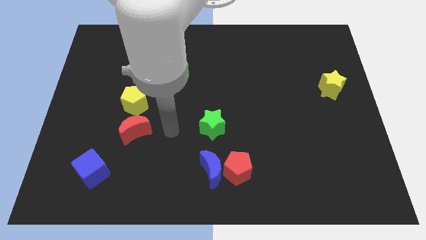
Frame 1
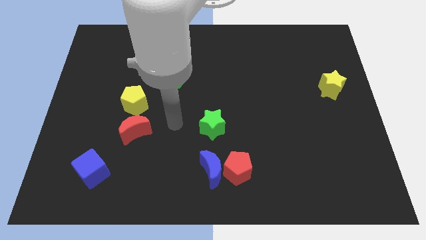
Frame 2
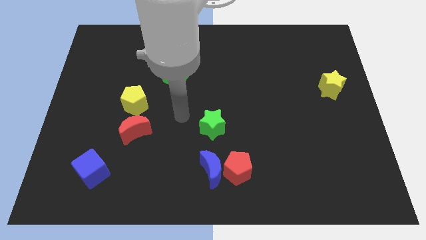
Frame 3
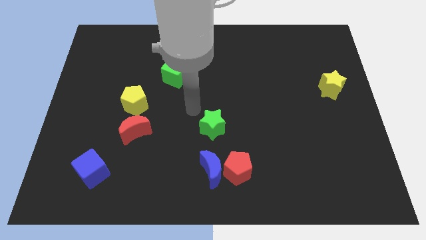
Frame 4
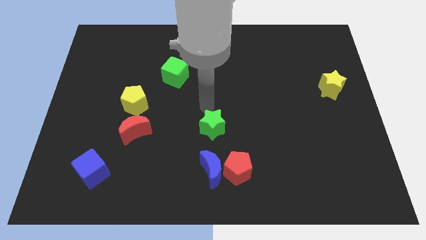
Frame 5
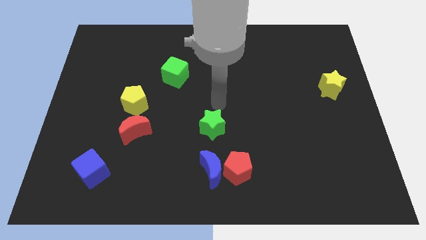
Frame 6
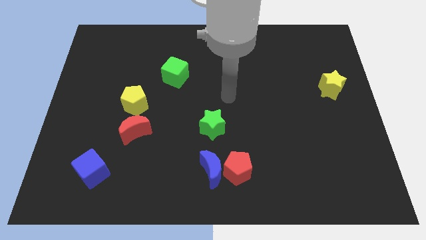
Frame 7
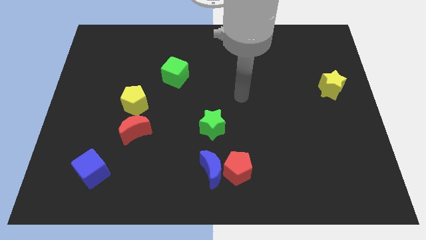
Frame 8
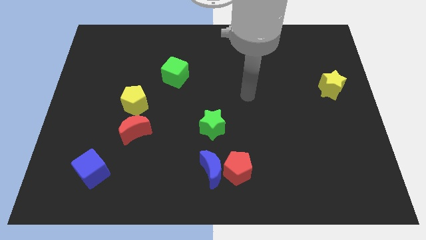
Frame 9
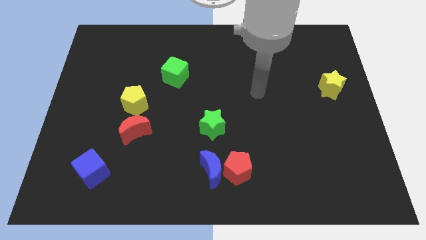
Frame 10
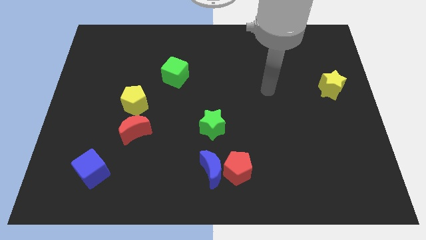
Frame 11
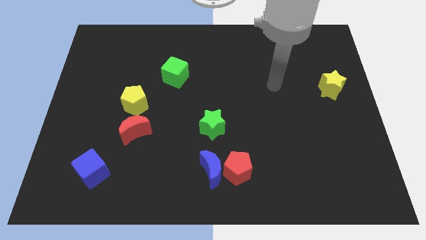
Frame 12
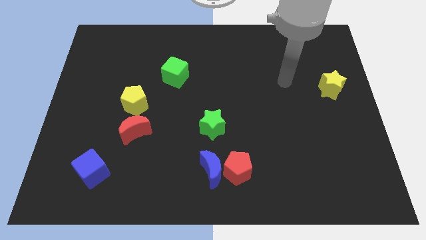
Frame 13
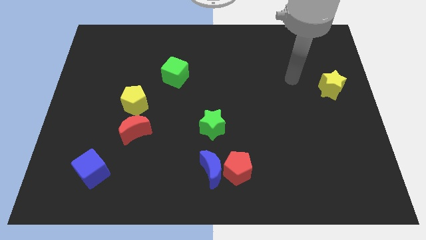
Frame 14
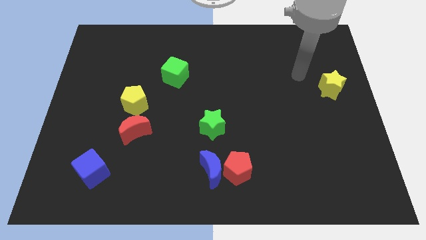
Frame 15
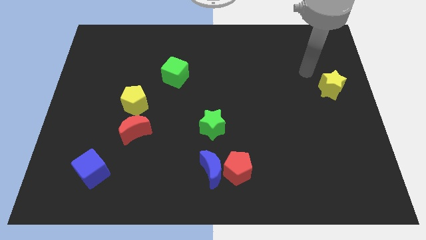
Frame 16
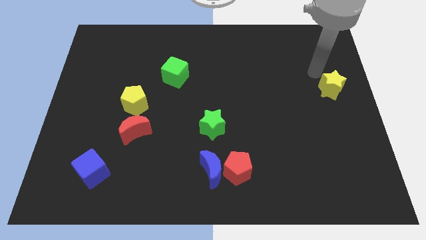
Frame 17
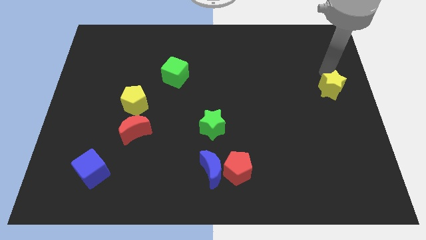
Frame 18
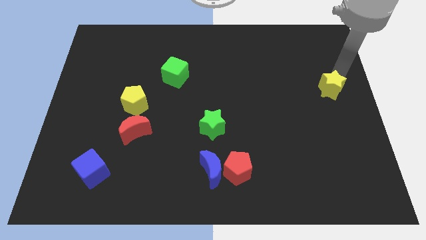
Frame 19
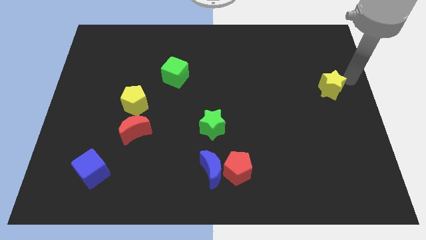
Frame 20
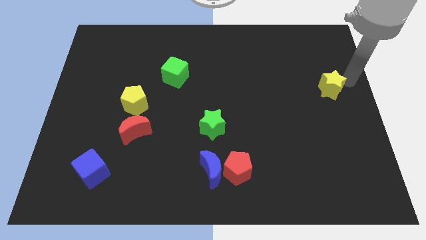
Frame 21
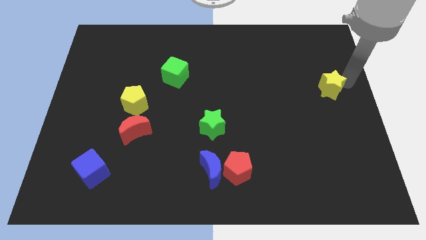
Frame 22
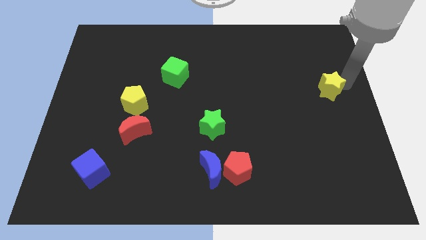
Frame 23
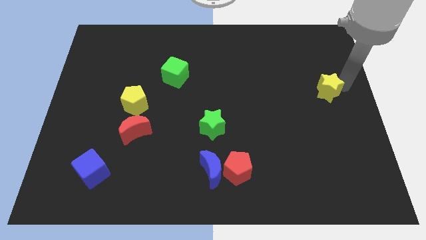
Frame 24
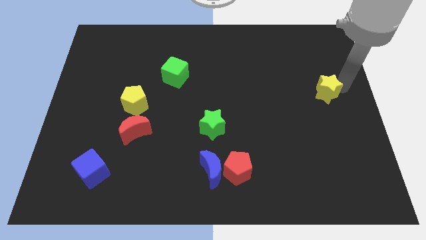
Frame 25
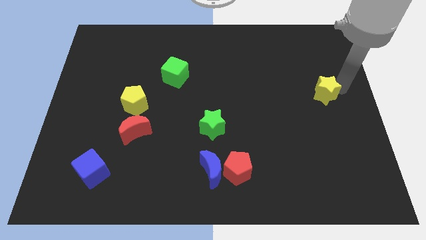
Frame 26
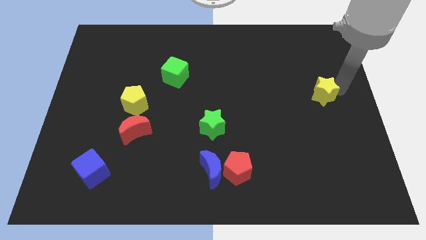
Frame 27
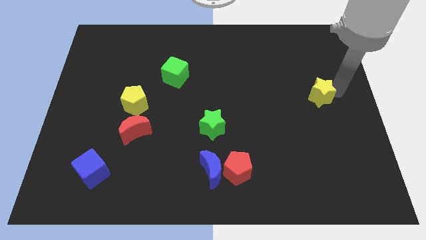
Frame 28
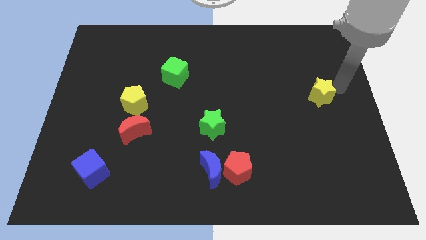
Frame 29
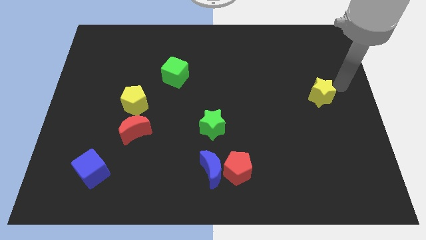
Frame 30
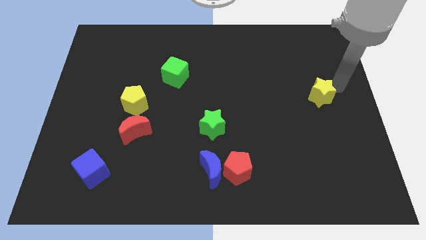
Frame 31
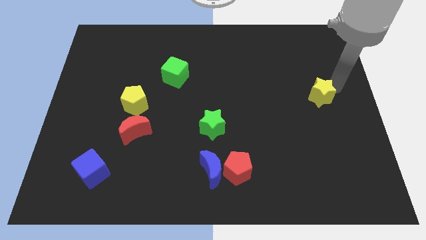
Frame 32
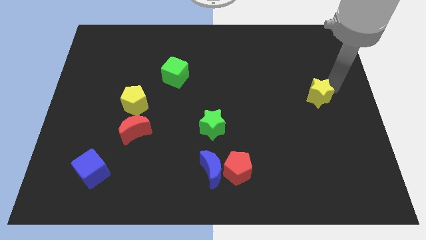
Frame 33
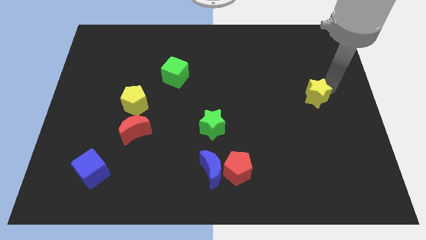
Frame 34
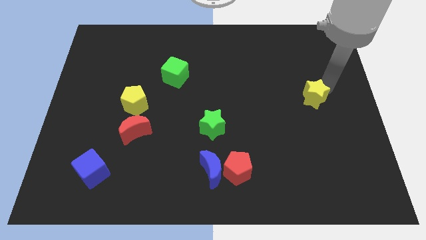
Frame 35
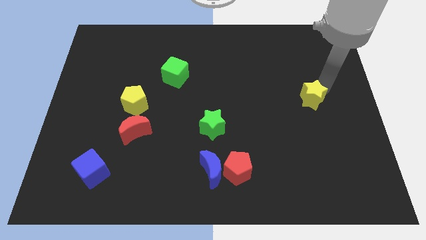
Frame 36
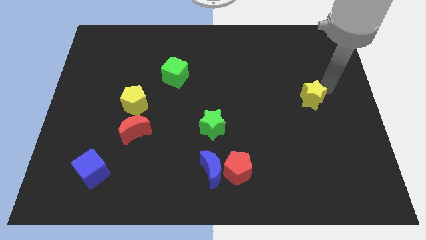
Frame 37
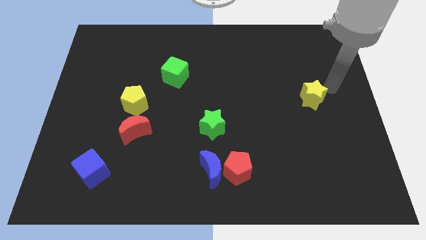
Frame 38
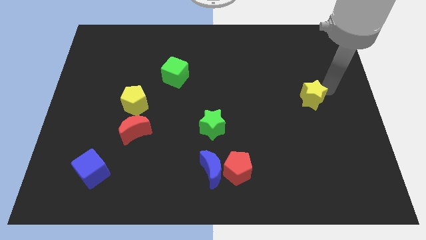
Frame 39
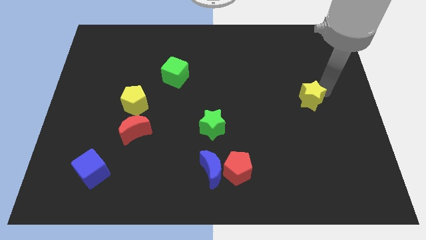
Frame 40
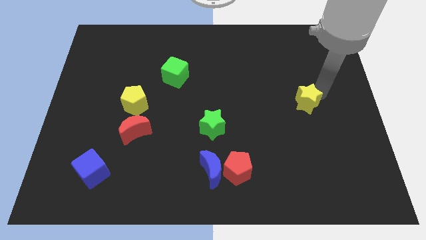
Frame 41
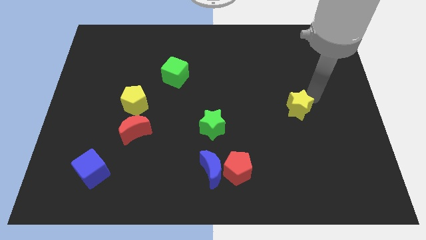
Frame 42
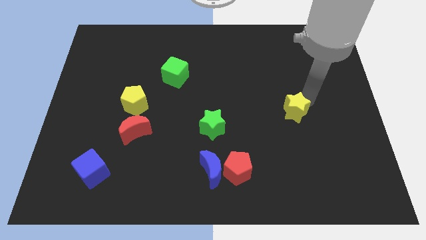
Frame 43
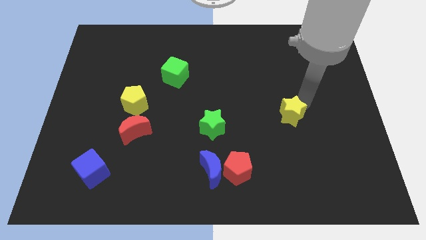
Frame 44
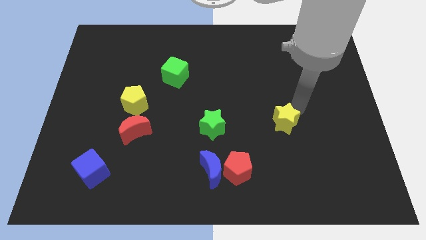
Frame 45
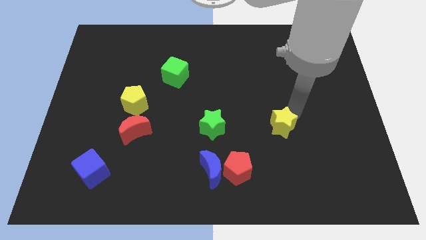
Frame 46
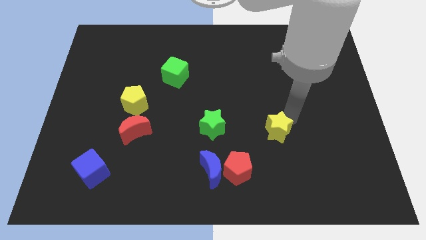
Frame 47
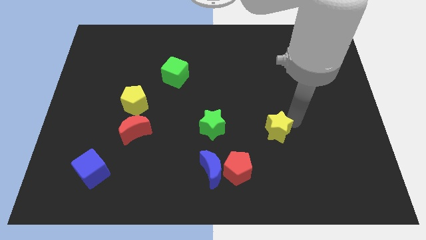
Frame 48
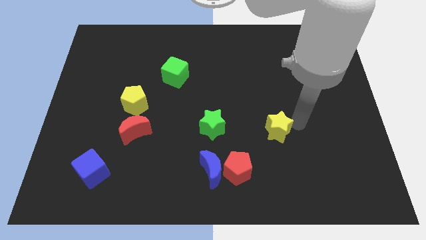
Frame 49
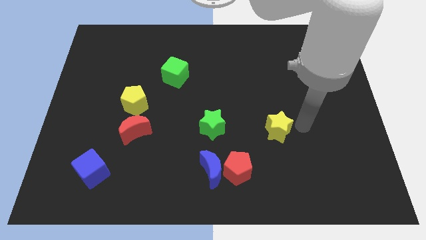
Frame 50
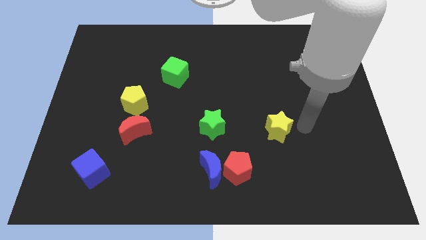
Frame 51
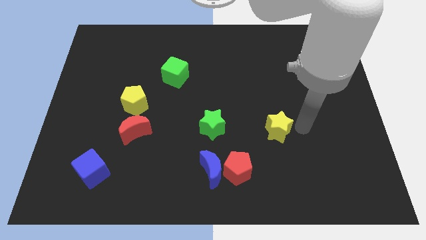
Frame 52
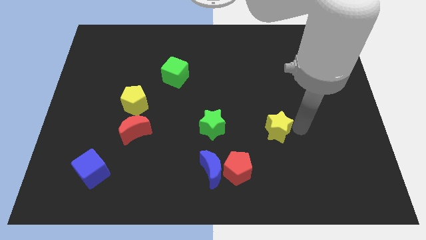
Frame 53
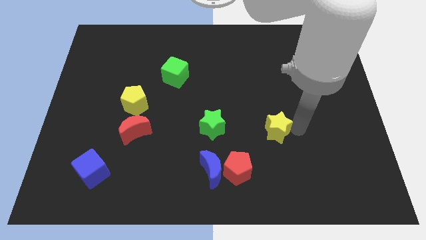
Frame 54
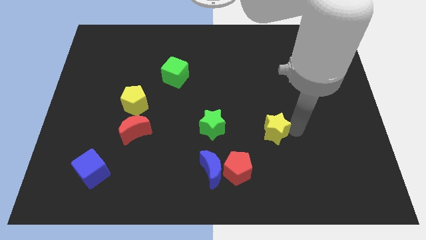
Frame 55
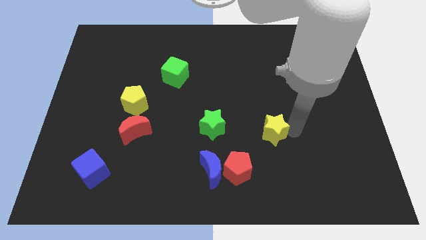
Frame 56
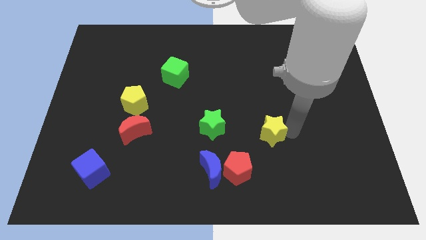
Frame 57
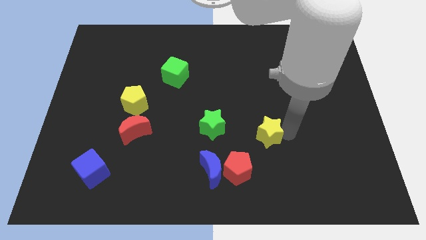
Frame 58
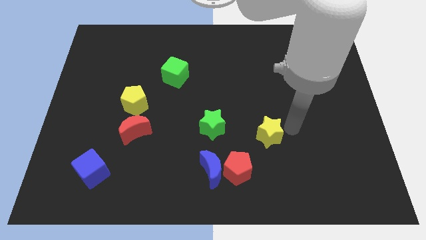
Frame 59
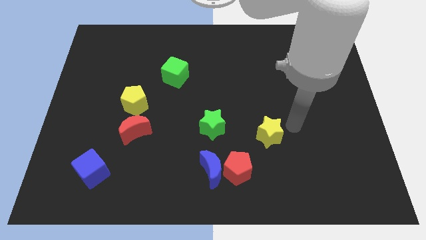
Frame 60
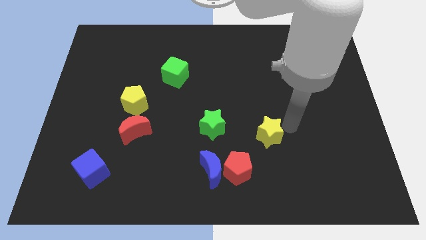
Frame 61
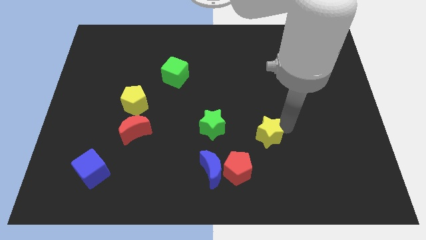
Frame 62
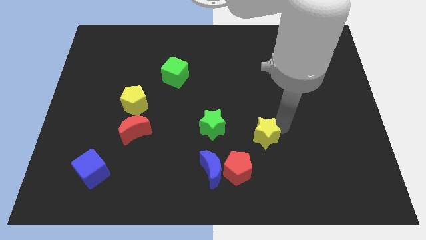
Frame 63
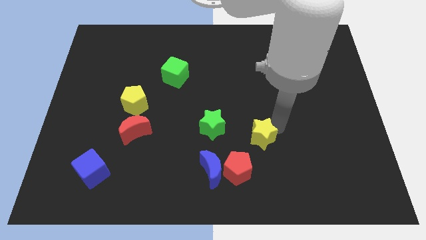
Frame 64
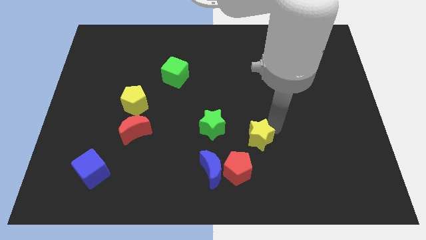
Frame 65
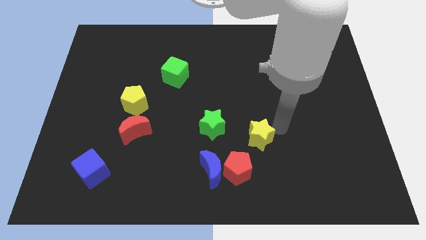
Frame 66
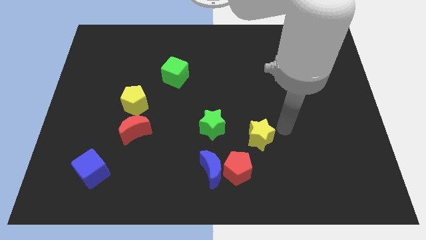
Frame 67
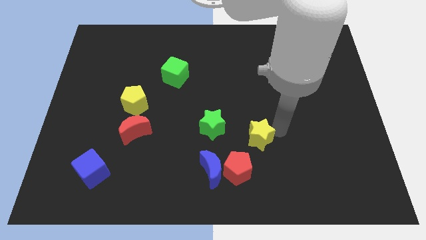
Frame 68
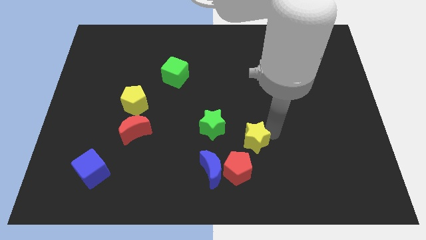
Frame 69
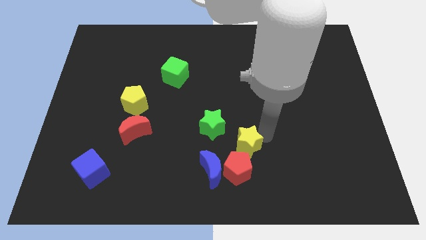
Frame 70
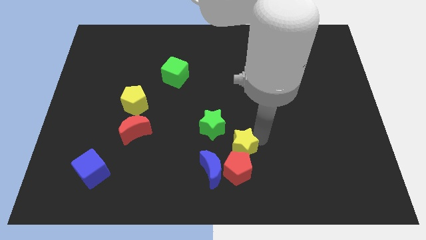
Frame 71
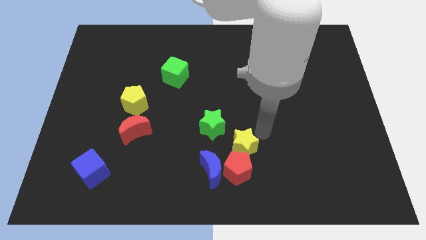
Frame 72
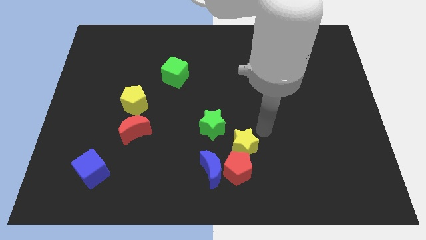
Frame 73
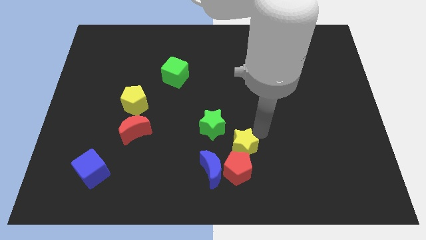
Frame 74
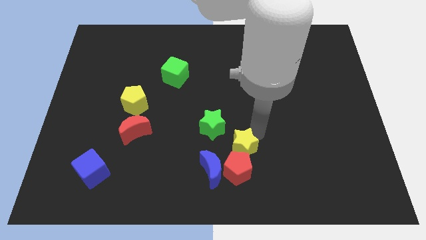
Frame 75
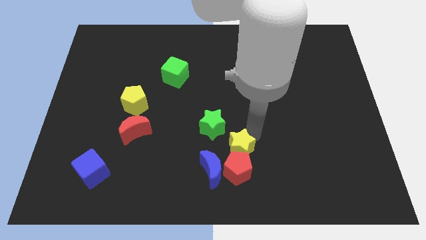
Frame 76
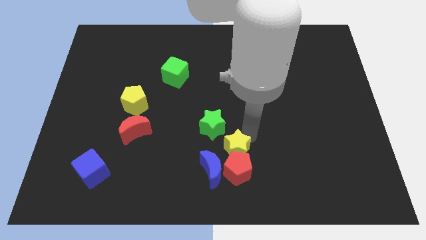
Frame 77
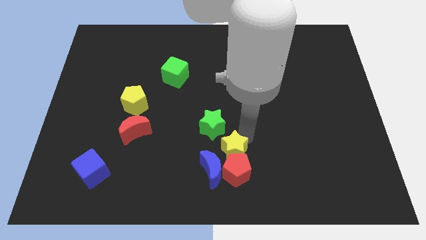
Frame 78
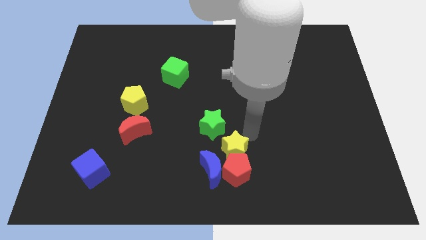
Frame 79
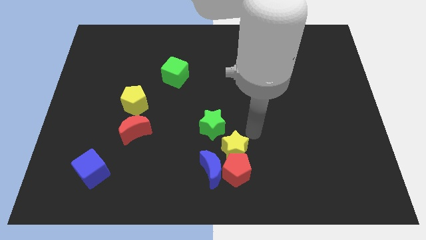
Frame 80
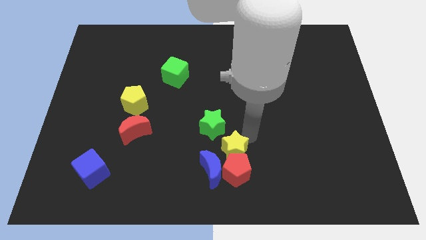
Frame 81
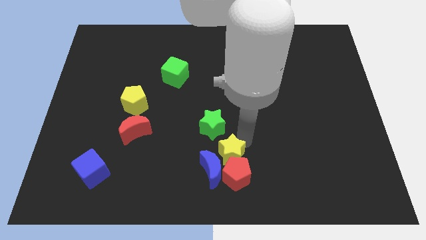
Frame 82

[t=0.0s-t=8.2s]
move the yellow star to the blue moon
